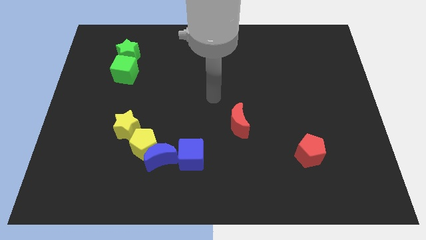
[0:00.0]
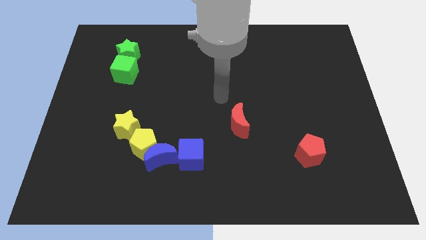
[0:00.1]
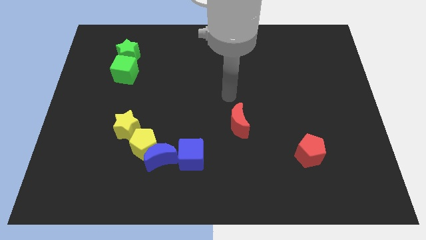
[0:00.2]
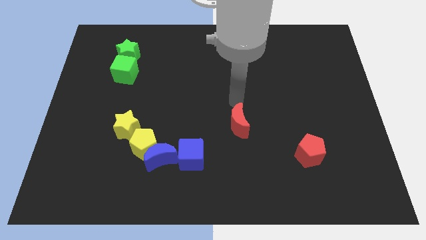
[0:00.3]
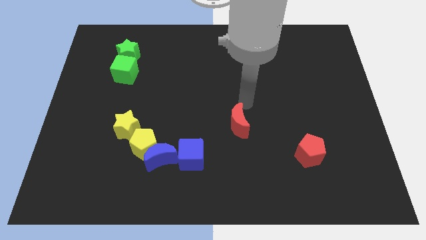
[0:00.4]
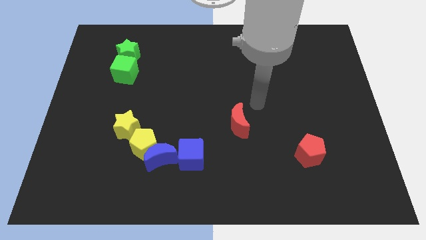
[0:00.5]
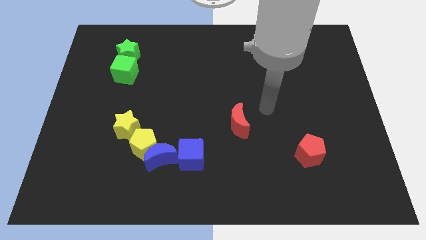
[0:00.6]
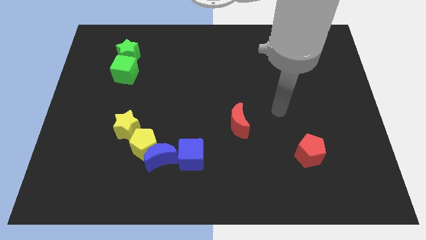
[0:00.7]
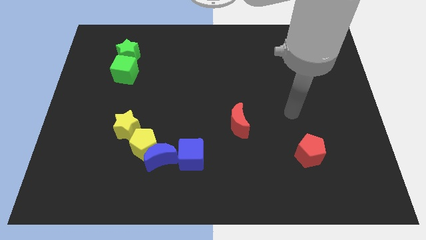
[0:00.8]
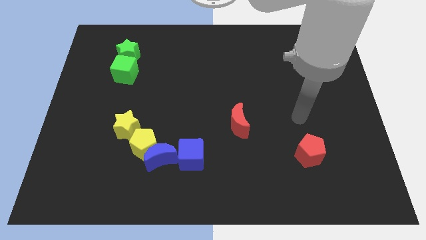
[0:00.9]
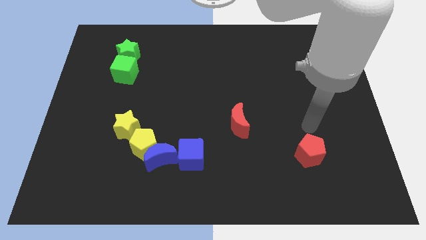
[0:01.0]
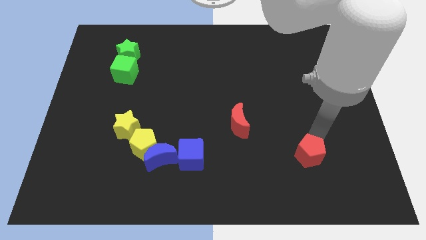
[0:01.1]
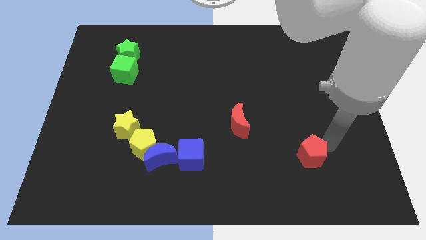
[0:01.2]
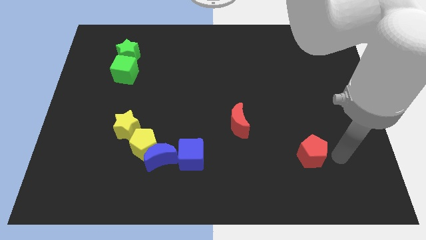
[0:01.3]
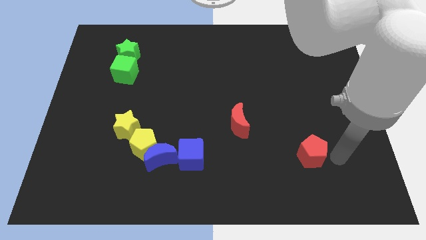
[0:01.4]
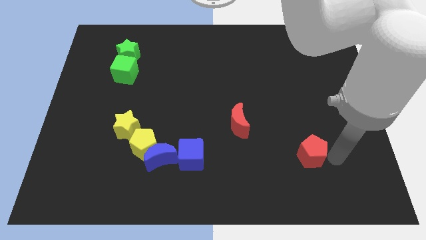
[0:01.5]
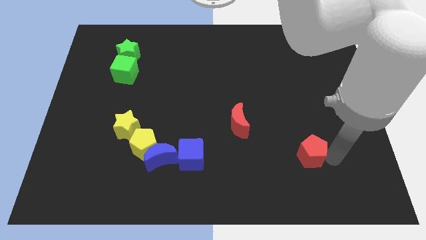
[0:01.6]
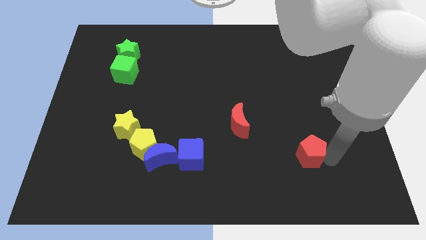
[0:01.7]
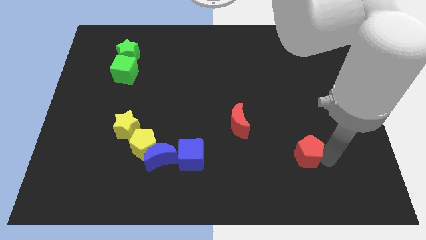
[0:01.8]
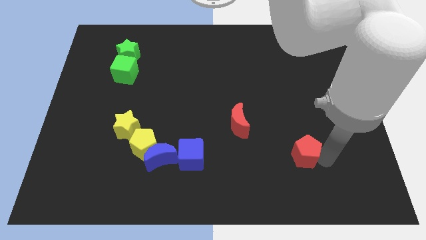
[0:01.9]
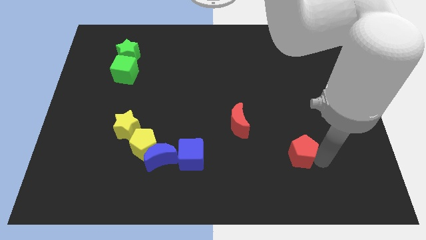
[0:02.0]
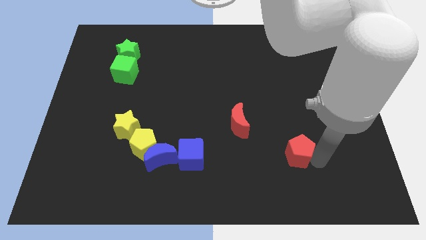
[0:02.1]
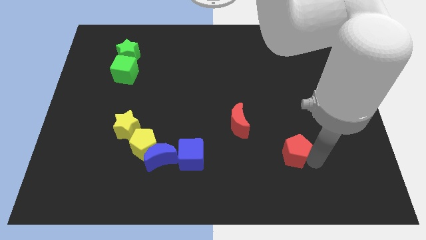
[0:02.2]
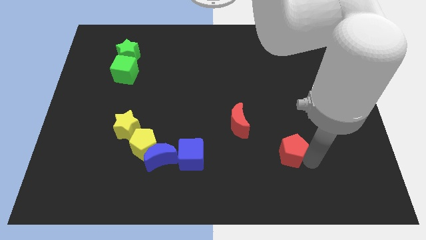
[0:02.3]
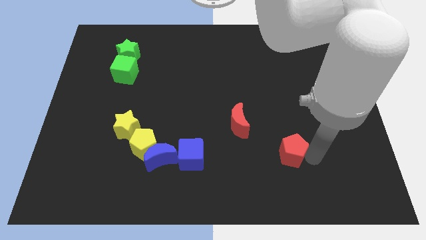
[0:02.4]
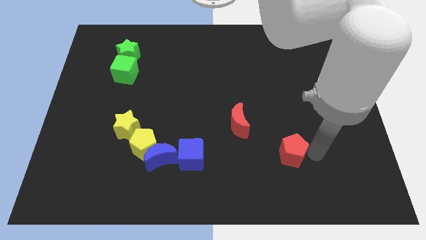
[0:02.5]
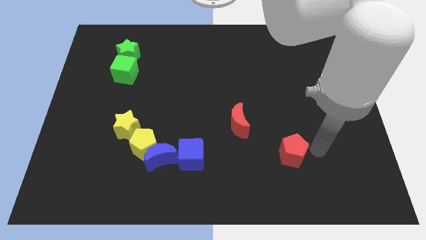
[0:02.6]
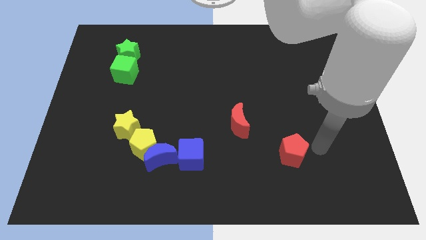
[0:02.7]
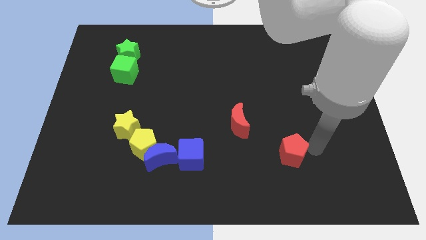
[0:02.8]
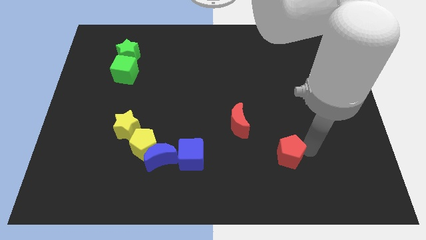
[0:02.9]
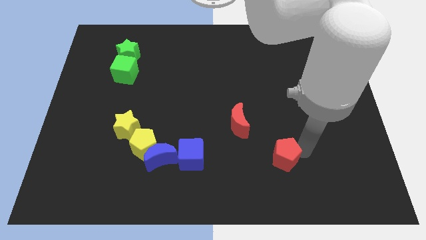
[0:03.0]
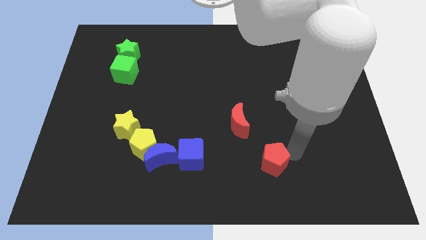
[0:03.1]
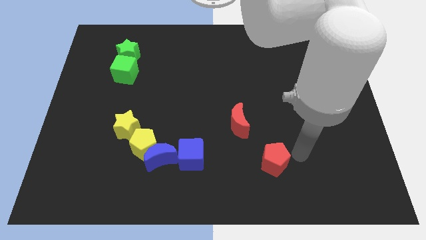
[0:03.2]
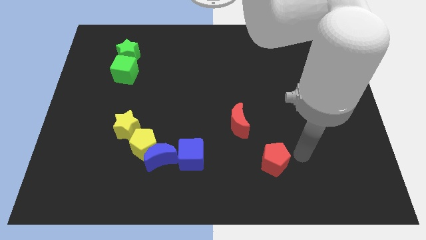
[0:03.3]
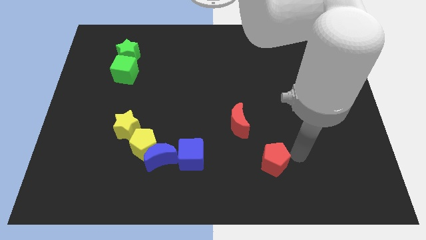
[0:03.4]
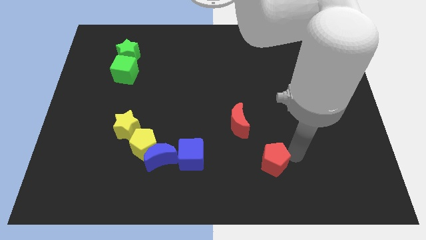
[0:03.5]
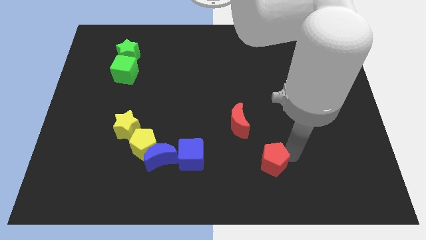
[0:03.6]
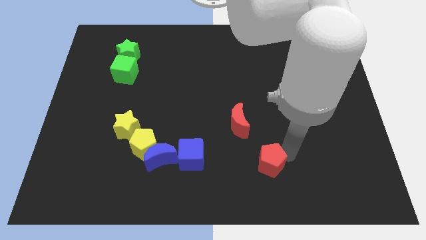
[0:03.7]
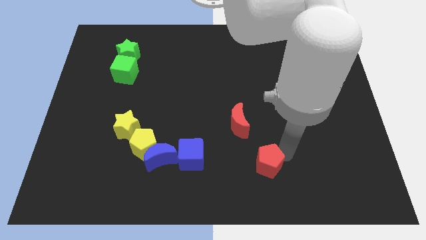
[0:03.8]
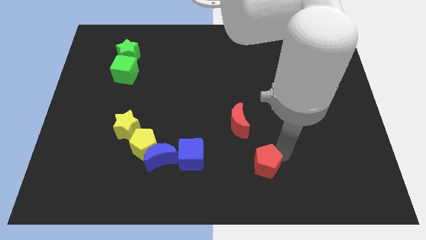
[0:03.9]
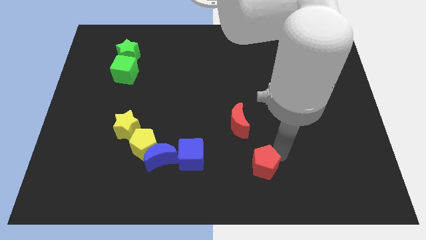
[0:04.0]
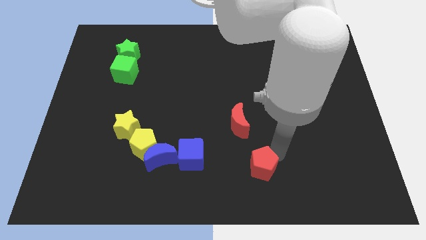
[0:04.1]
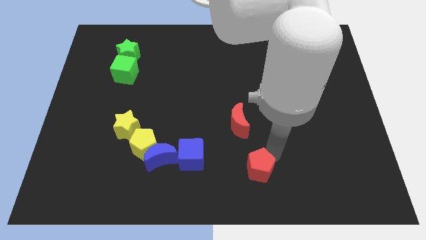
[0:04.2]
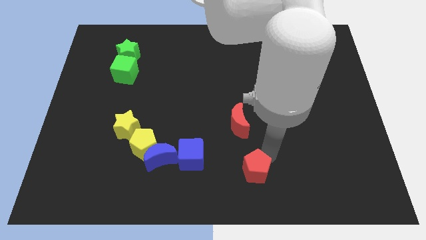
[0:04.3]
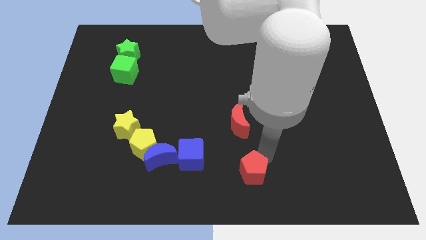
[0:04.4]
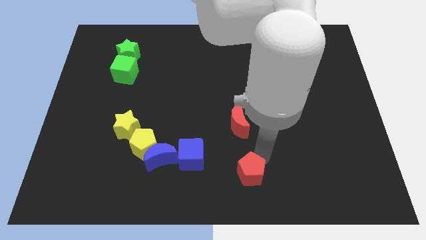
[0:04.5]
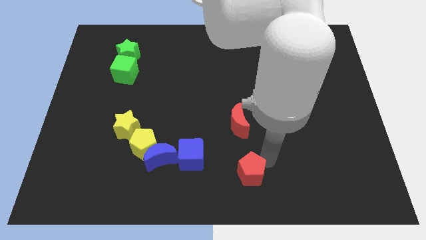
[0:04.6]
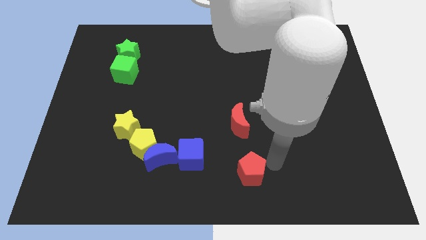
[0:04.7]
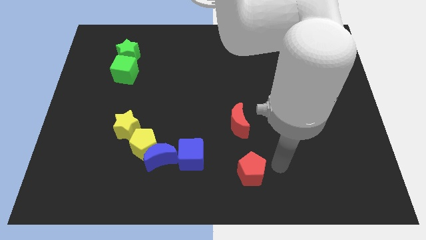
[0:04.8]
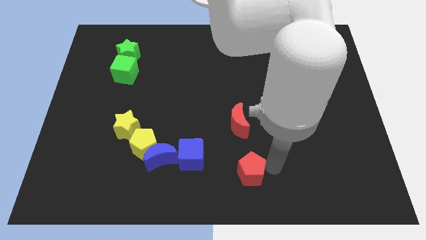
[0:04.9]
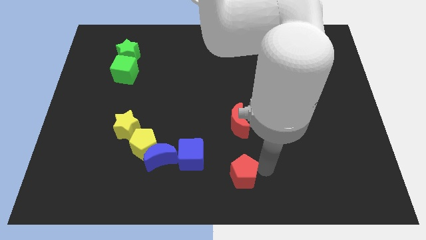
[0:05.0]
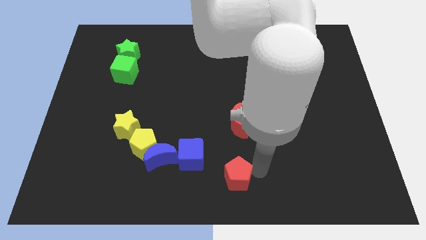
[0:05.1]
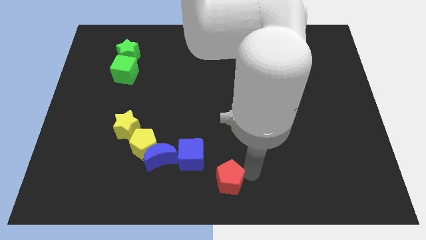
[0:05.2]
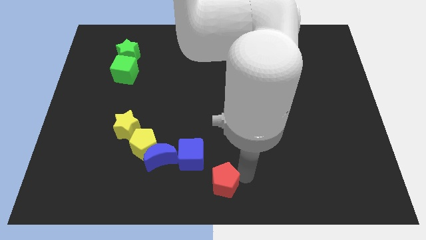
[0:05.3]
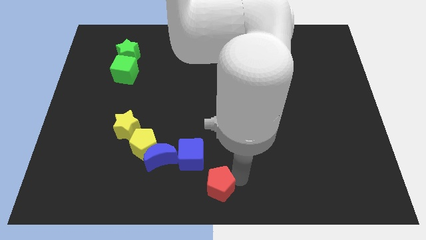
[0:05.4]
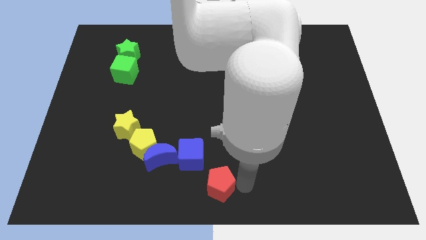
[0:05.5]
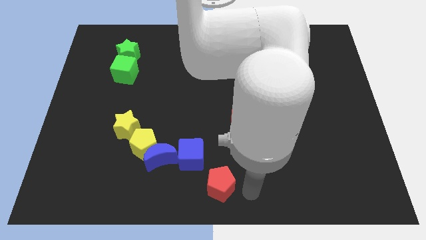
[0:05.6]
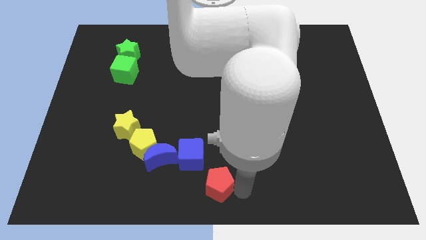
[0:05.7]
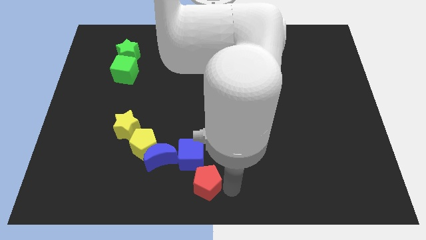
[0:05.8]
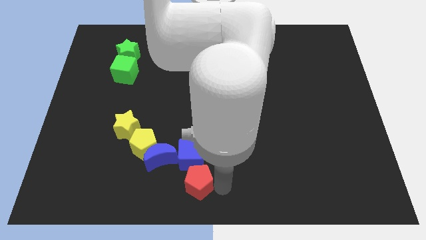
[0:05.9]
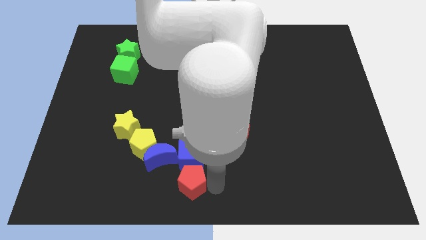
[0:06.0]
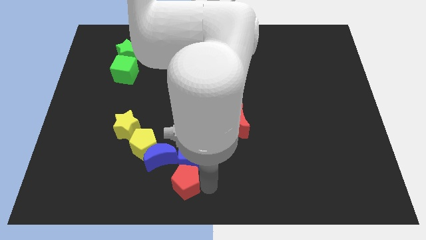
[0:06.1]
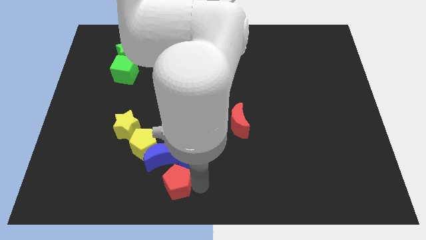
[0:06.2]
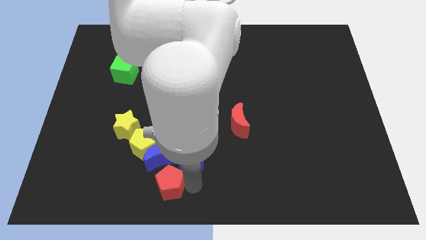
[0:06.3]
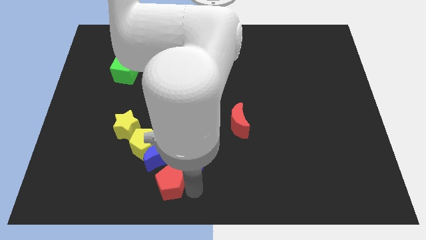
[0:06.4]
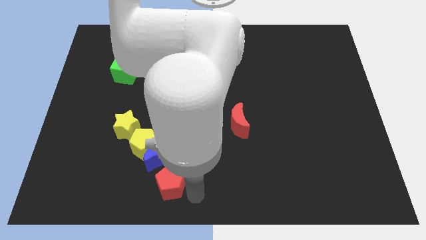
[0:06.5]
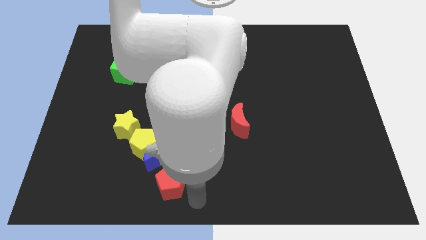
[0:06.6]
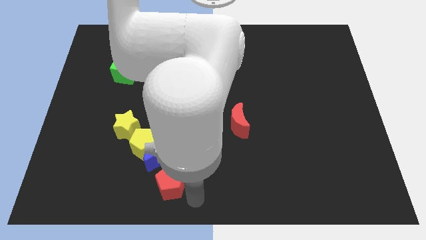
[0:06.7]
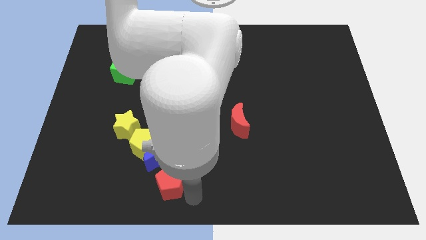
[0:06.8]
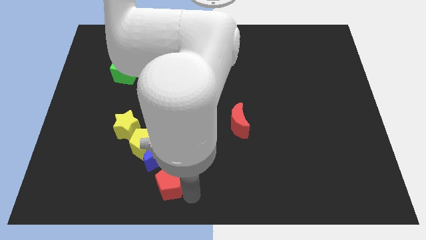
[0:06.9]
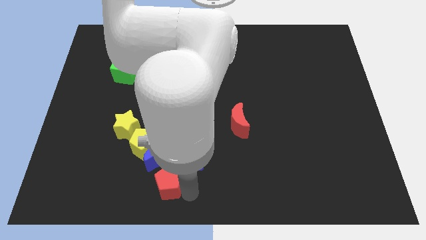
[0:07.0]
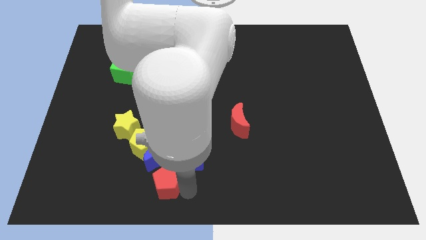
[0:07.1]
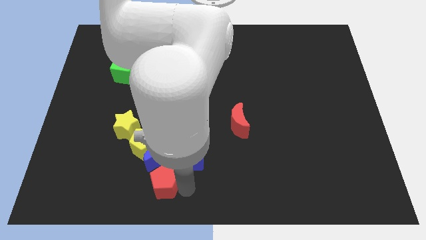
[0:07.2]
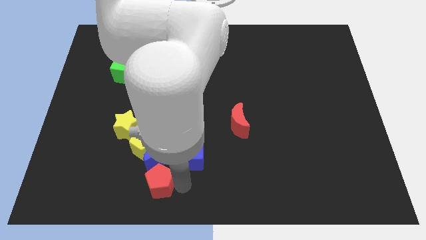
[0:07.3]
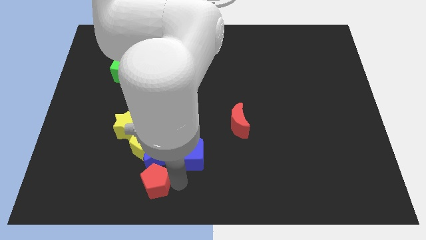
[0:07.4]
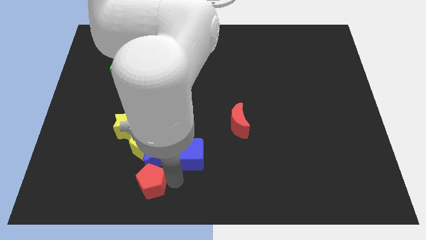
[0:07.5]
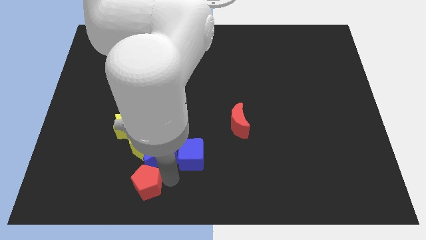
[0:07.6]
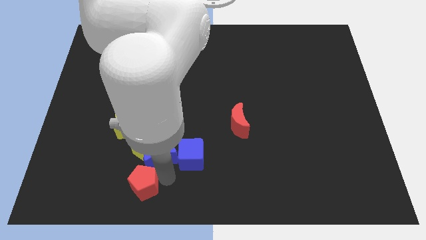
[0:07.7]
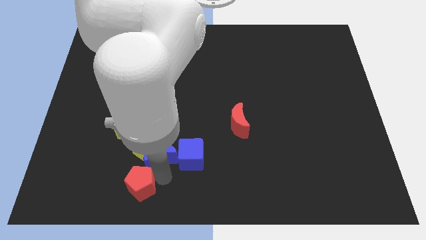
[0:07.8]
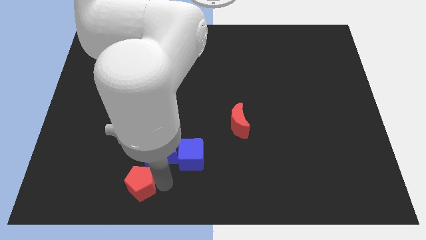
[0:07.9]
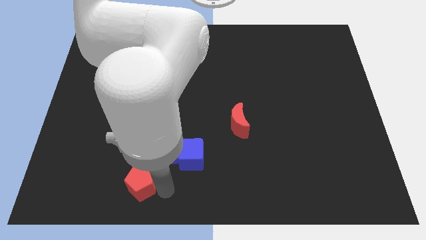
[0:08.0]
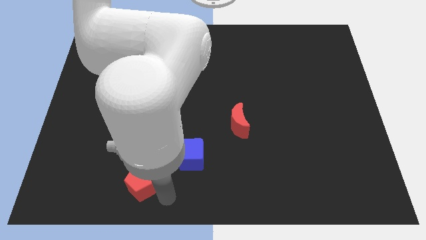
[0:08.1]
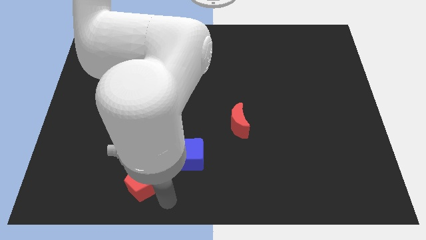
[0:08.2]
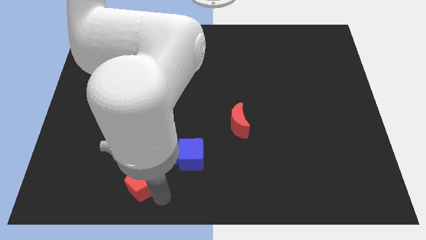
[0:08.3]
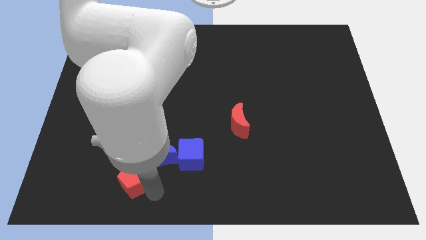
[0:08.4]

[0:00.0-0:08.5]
slide the red pentagon to the bottom left of the yellow pentagon
